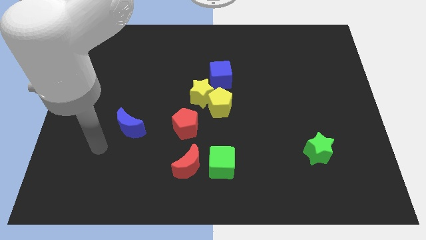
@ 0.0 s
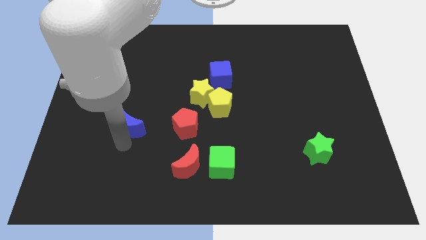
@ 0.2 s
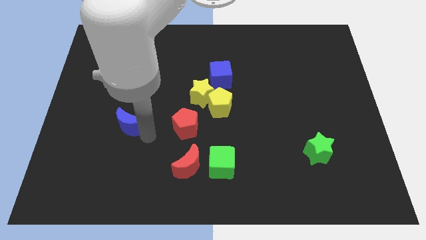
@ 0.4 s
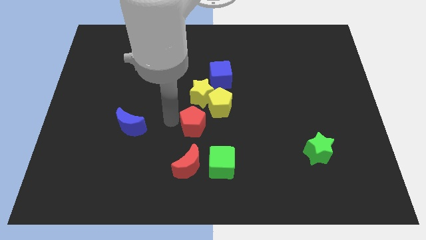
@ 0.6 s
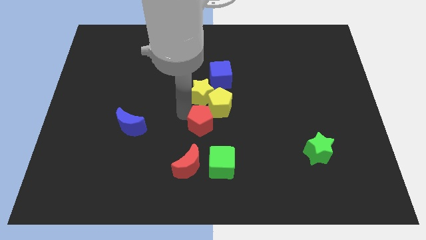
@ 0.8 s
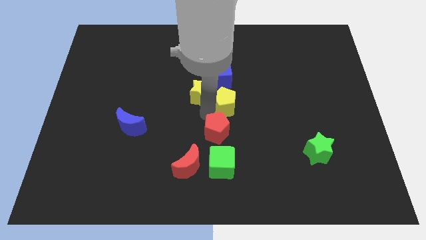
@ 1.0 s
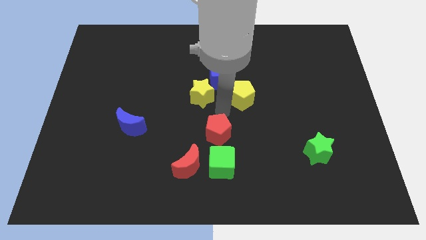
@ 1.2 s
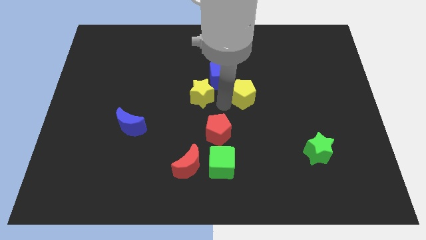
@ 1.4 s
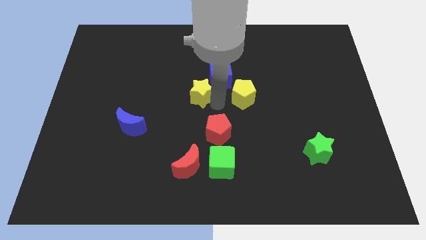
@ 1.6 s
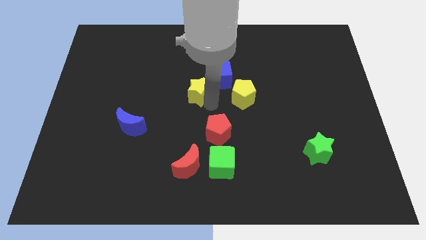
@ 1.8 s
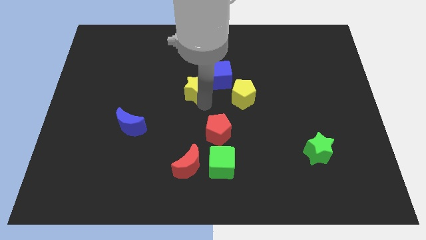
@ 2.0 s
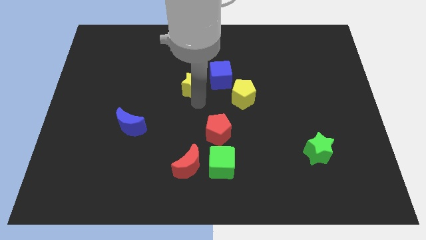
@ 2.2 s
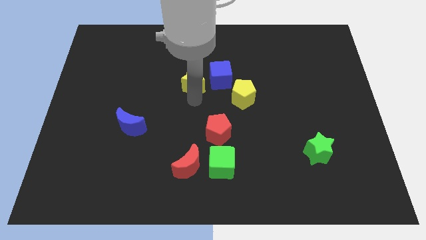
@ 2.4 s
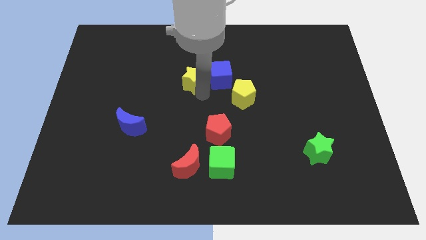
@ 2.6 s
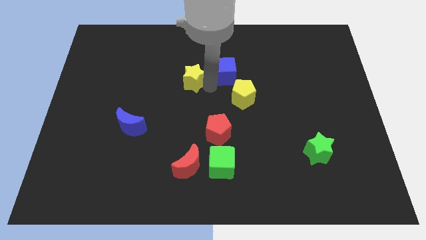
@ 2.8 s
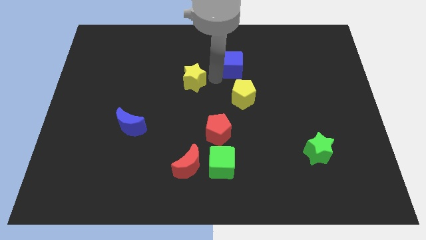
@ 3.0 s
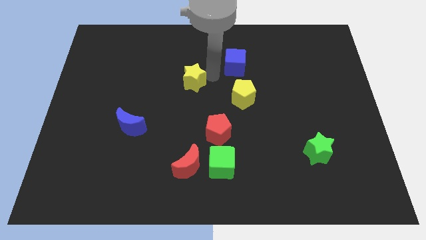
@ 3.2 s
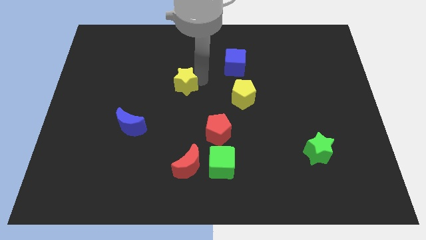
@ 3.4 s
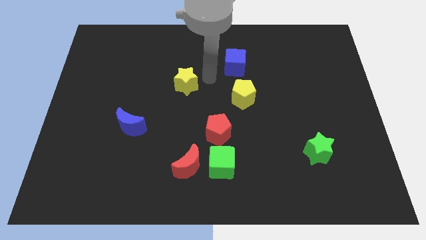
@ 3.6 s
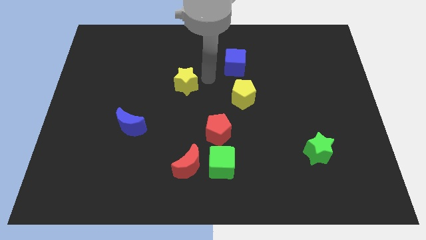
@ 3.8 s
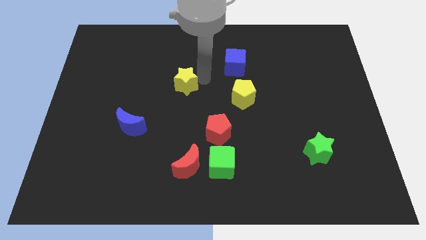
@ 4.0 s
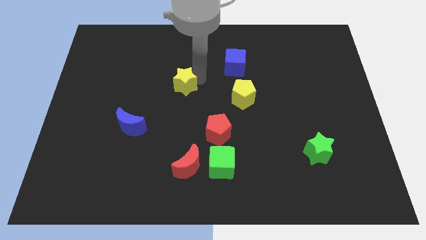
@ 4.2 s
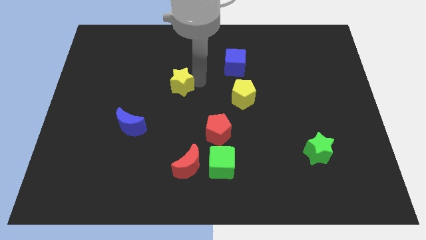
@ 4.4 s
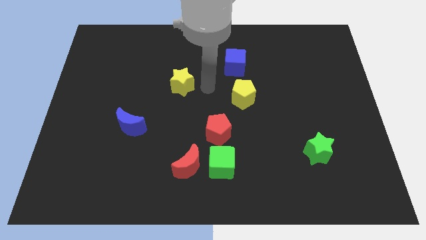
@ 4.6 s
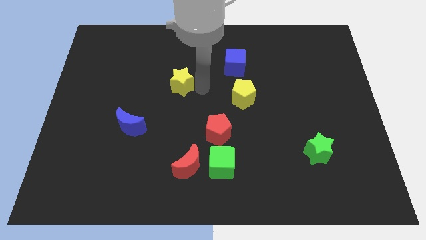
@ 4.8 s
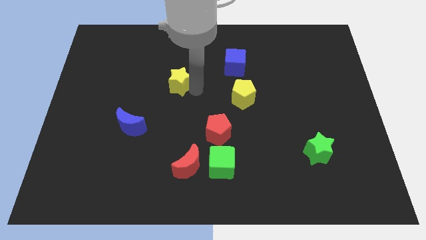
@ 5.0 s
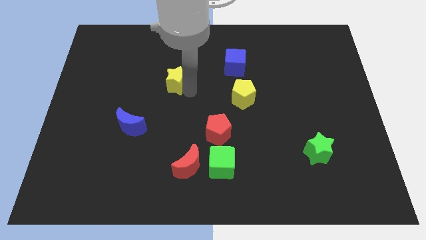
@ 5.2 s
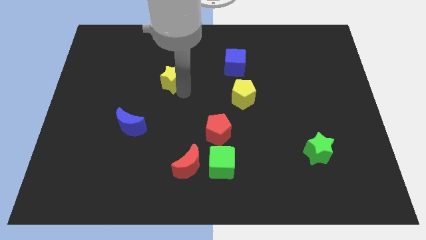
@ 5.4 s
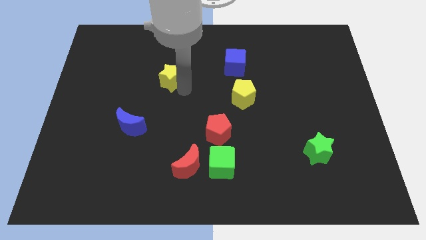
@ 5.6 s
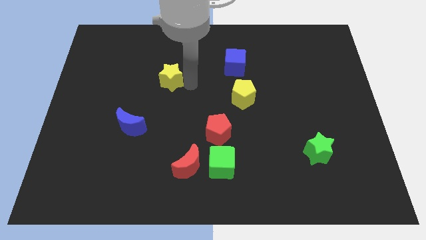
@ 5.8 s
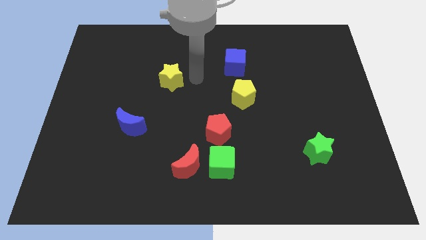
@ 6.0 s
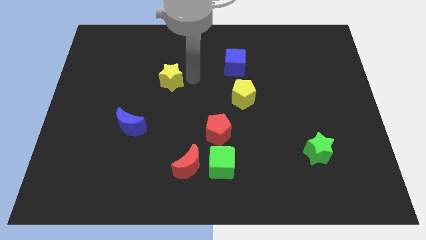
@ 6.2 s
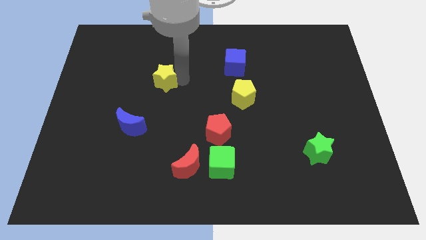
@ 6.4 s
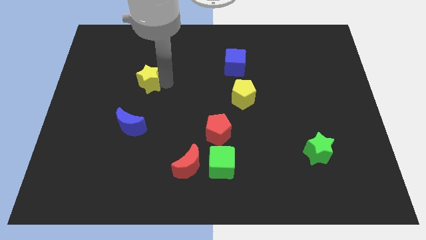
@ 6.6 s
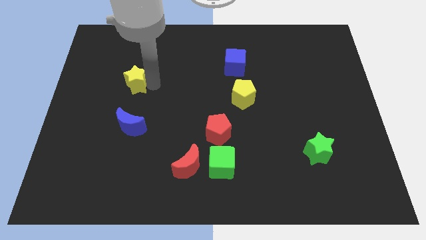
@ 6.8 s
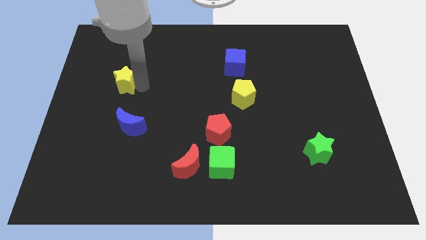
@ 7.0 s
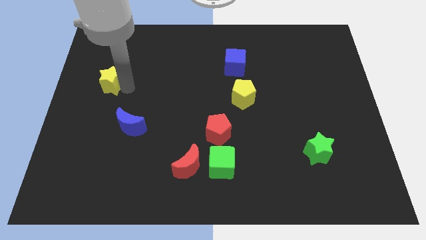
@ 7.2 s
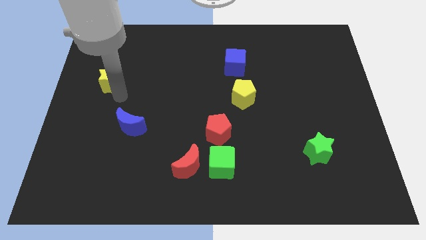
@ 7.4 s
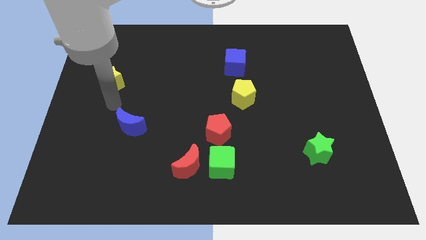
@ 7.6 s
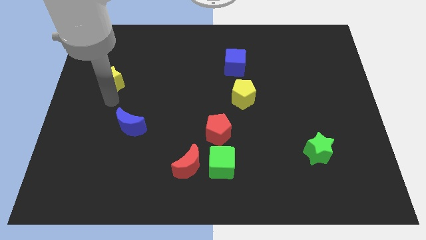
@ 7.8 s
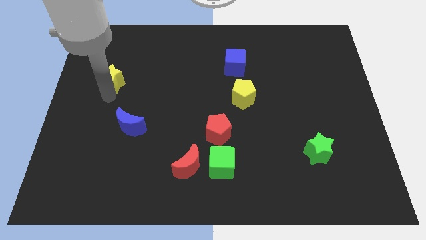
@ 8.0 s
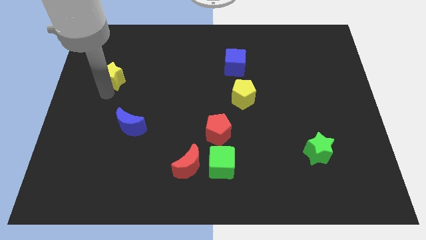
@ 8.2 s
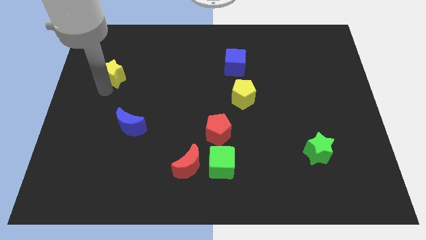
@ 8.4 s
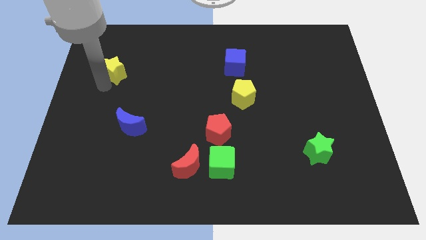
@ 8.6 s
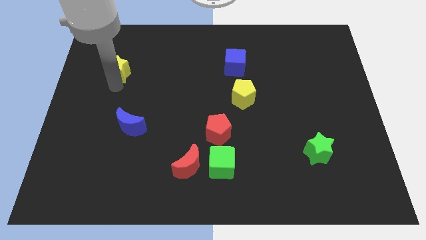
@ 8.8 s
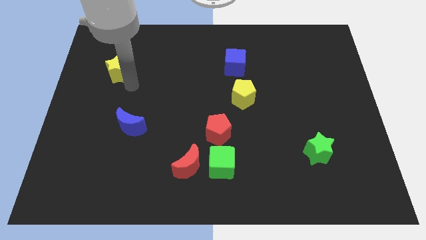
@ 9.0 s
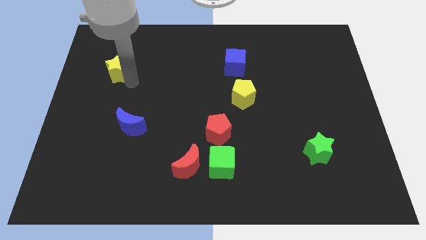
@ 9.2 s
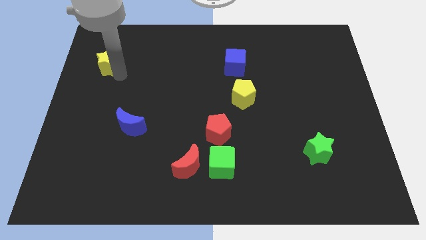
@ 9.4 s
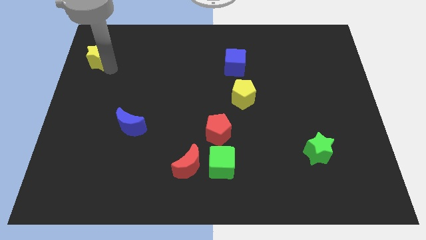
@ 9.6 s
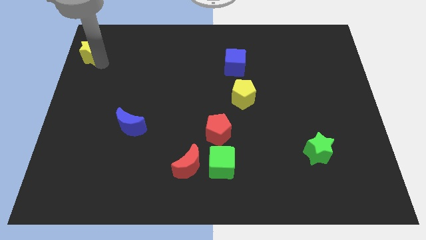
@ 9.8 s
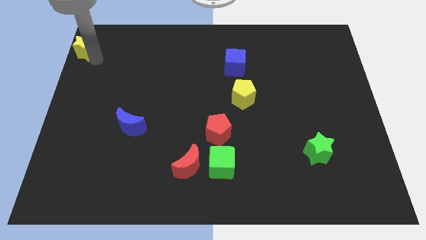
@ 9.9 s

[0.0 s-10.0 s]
move the yellow star to the top left of the board

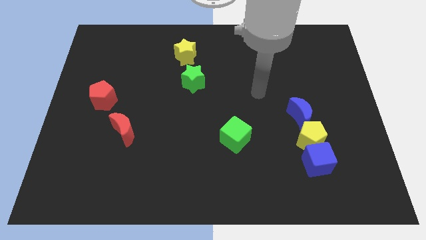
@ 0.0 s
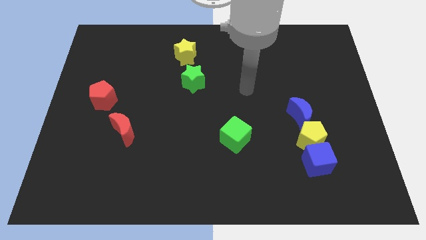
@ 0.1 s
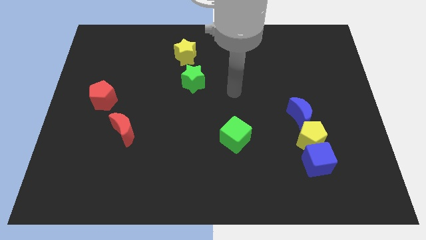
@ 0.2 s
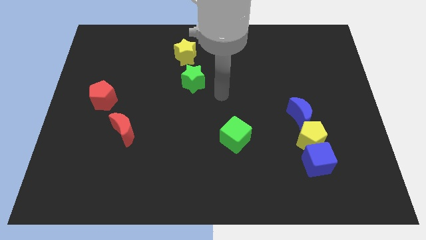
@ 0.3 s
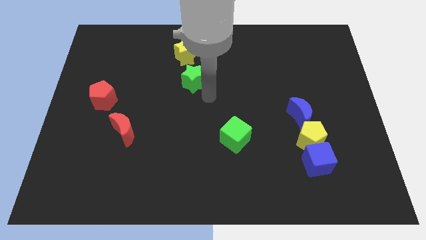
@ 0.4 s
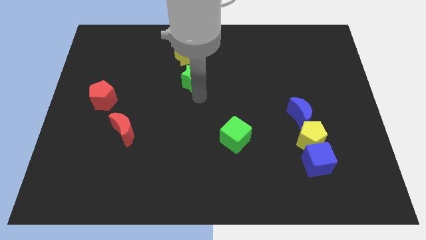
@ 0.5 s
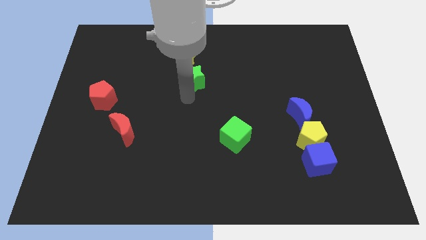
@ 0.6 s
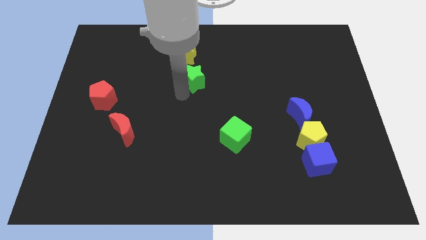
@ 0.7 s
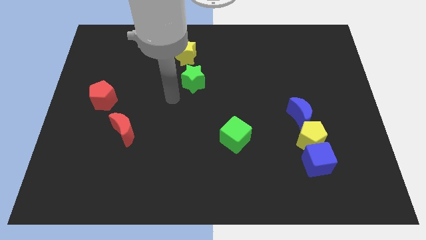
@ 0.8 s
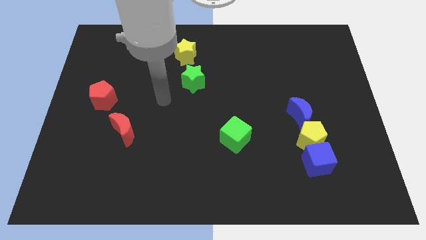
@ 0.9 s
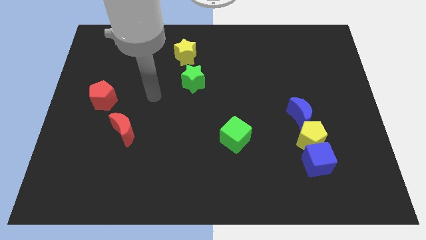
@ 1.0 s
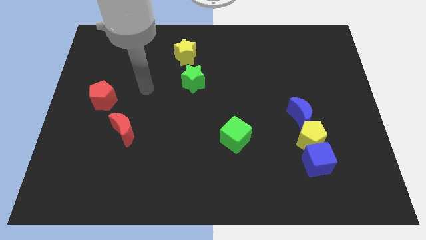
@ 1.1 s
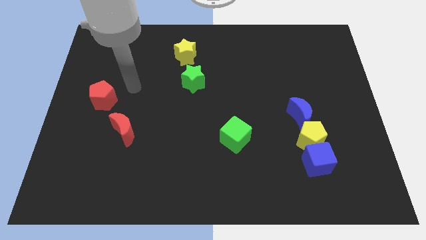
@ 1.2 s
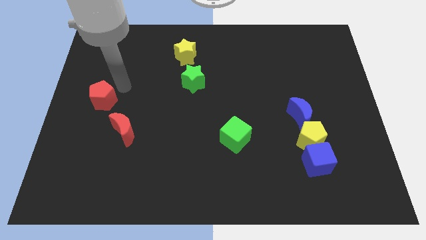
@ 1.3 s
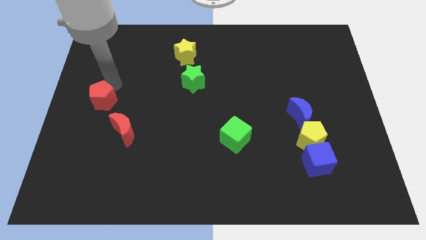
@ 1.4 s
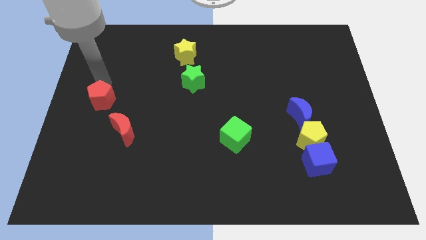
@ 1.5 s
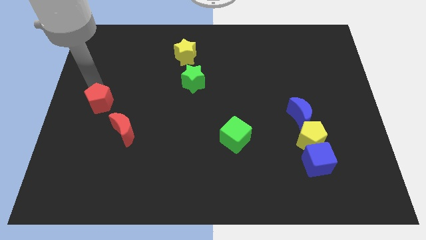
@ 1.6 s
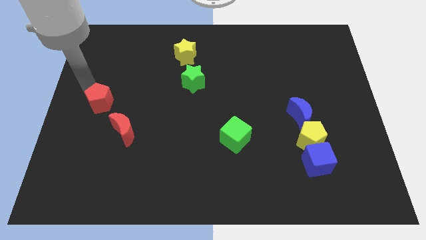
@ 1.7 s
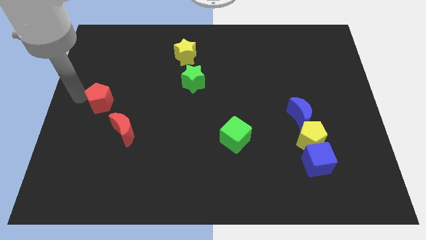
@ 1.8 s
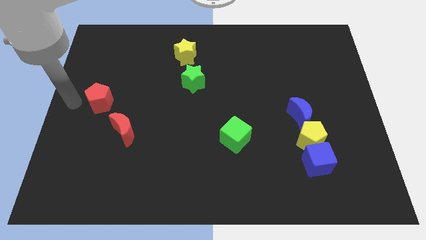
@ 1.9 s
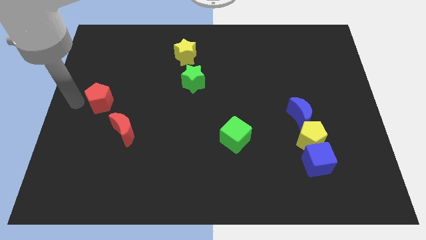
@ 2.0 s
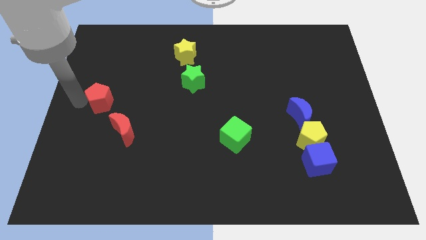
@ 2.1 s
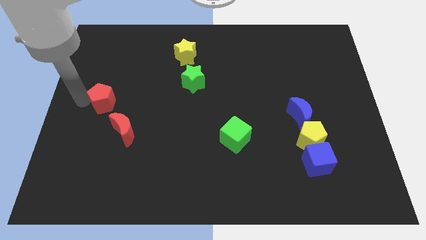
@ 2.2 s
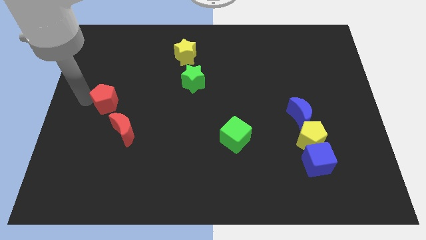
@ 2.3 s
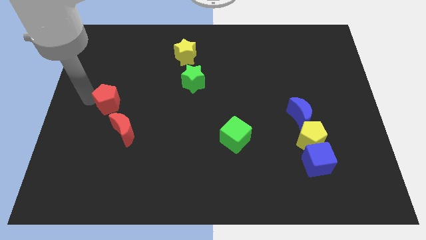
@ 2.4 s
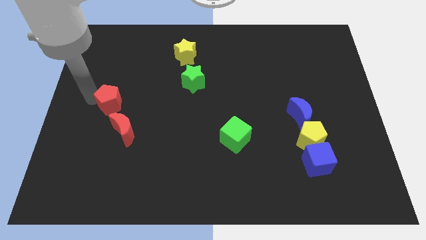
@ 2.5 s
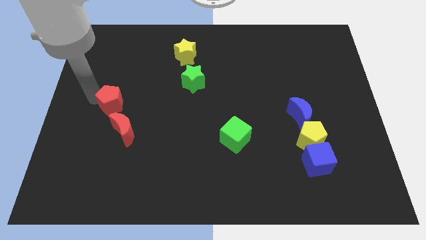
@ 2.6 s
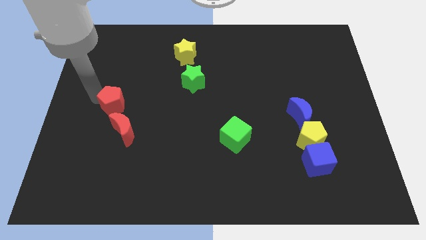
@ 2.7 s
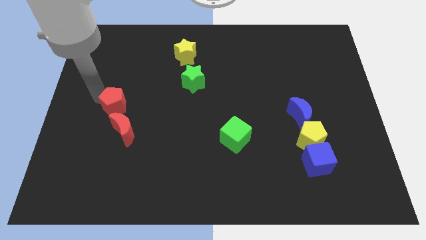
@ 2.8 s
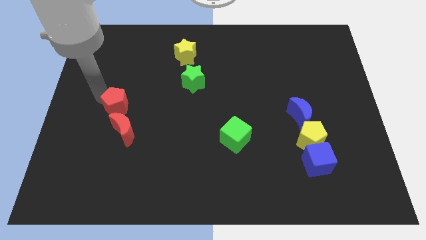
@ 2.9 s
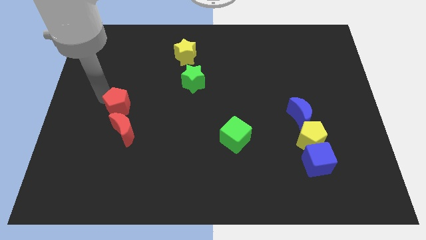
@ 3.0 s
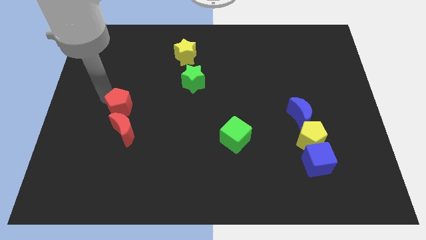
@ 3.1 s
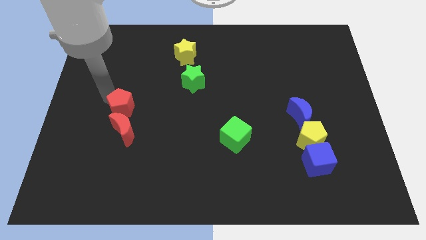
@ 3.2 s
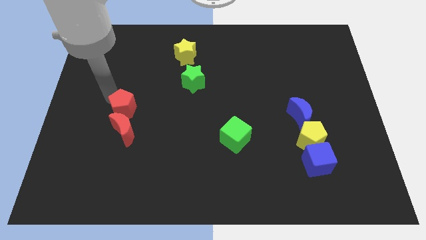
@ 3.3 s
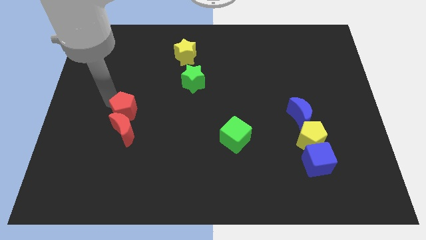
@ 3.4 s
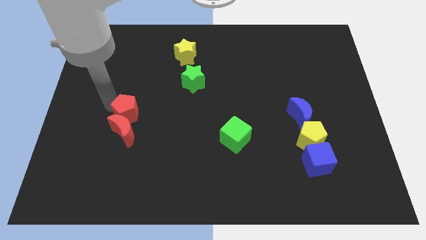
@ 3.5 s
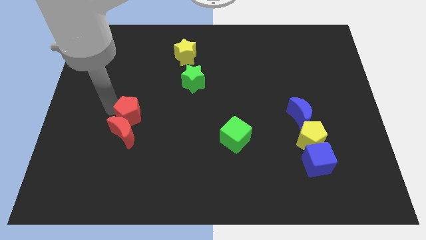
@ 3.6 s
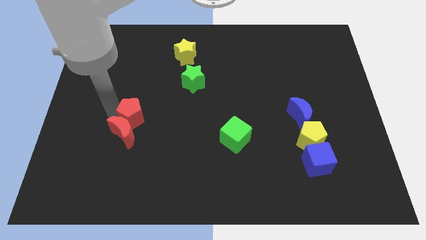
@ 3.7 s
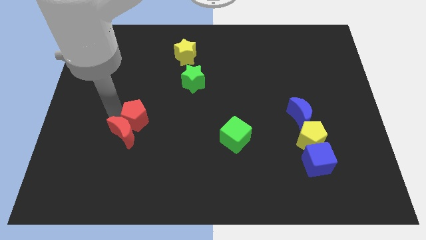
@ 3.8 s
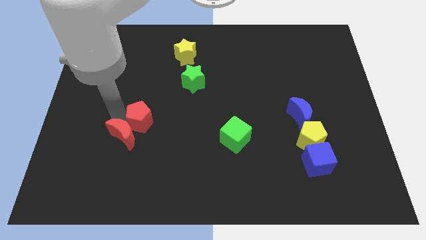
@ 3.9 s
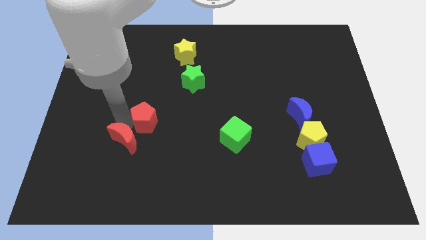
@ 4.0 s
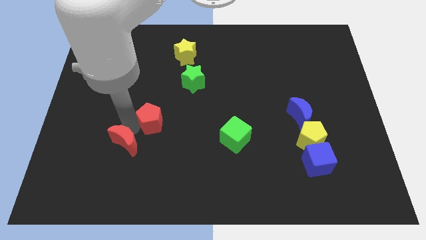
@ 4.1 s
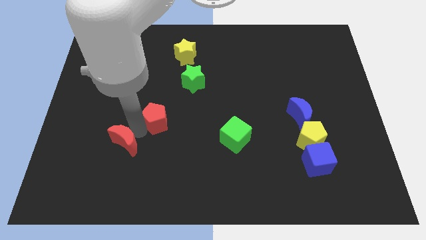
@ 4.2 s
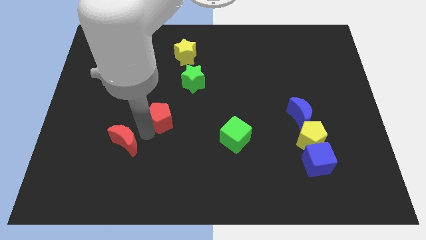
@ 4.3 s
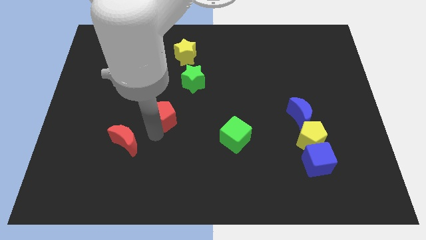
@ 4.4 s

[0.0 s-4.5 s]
move the red pentagon to the center of the board
